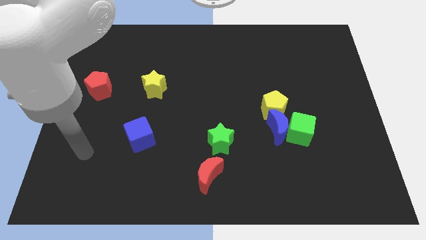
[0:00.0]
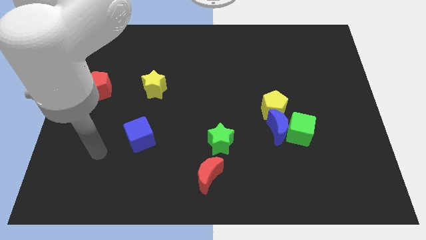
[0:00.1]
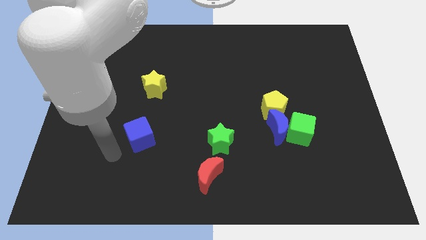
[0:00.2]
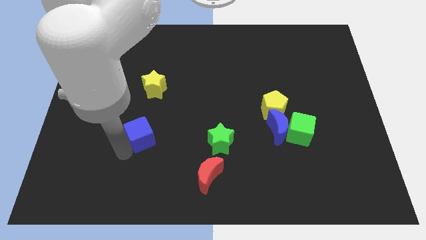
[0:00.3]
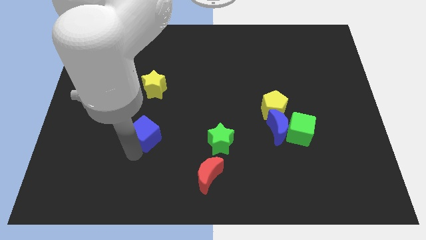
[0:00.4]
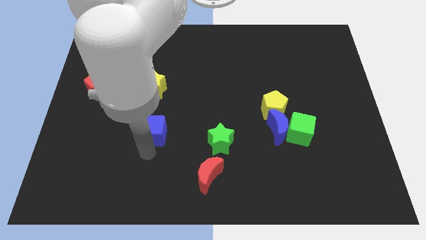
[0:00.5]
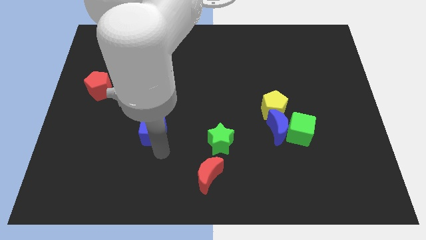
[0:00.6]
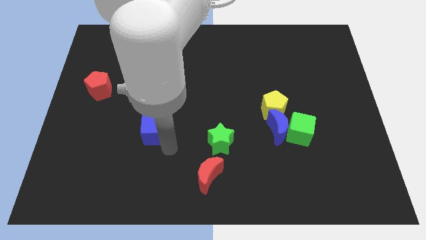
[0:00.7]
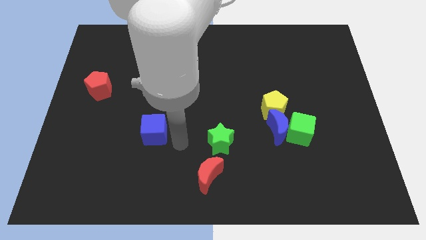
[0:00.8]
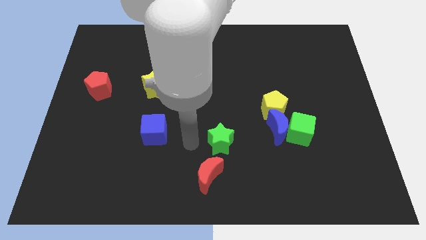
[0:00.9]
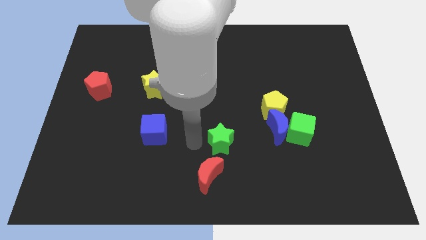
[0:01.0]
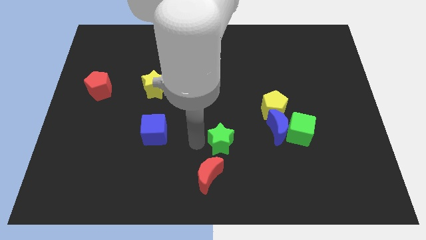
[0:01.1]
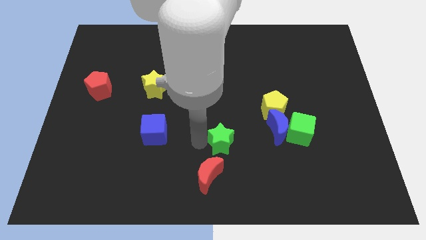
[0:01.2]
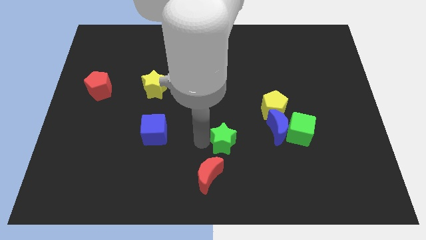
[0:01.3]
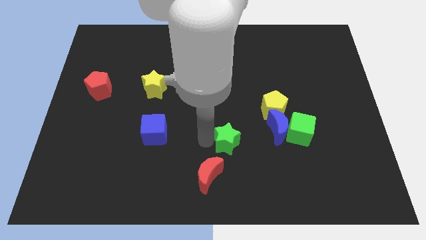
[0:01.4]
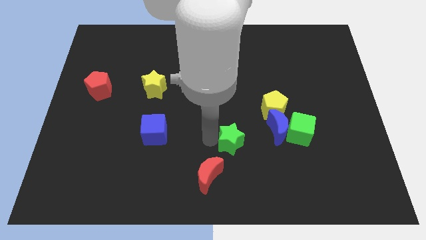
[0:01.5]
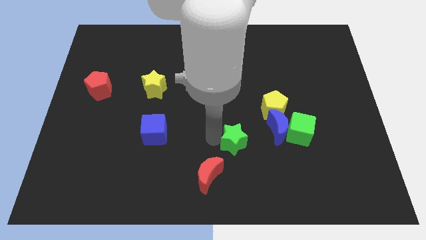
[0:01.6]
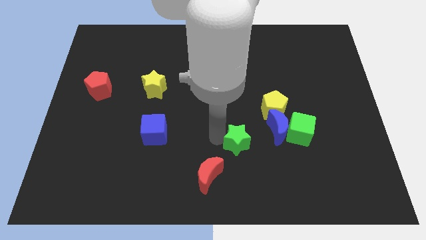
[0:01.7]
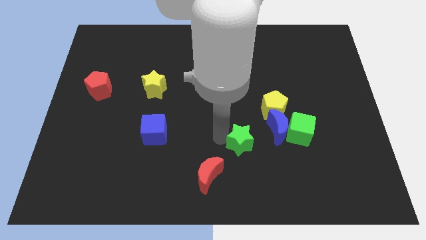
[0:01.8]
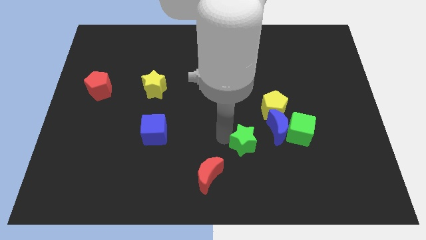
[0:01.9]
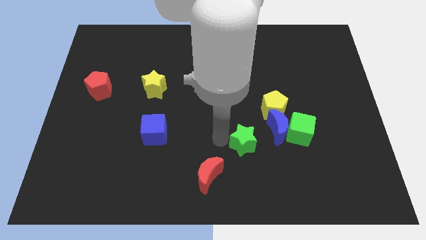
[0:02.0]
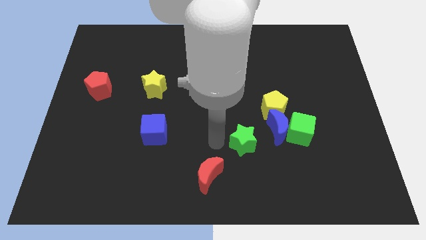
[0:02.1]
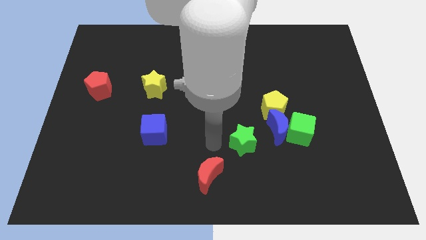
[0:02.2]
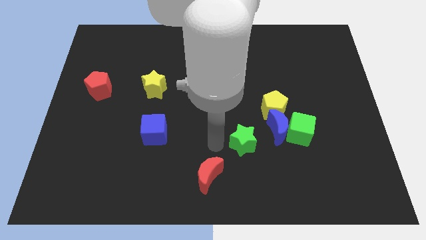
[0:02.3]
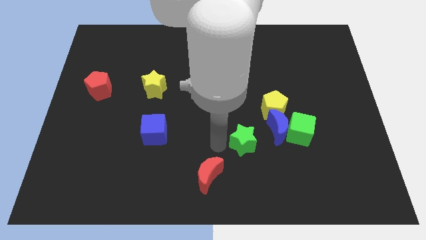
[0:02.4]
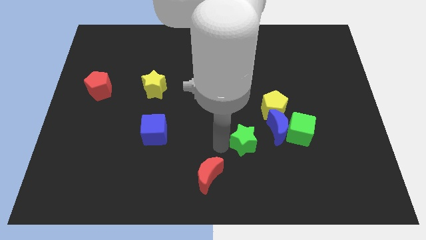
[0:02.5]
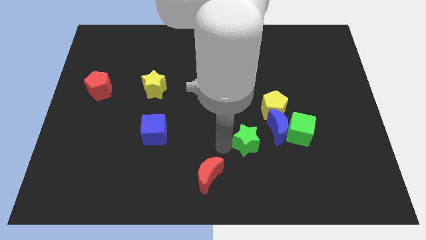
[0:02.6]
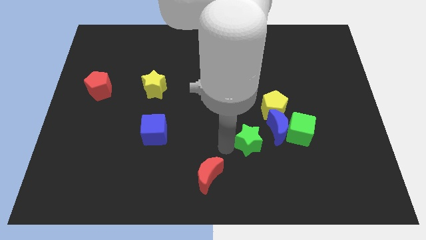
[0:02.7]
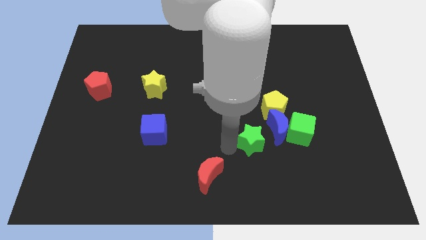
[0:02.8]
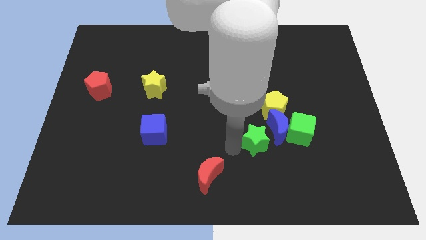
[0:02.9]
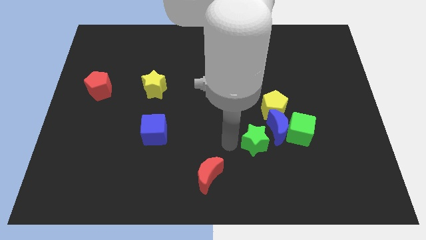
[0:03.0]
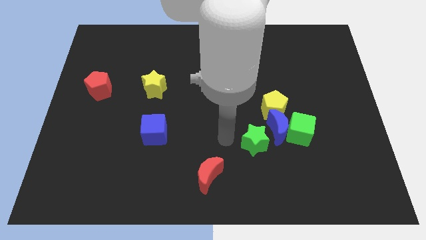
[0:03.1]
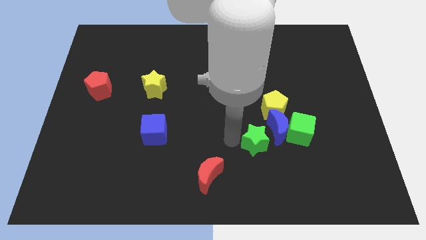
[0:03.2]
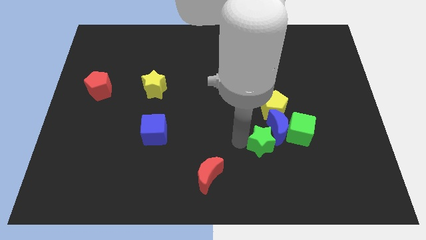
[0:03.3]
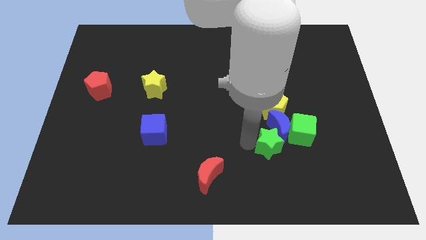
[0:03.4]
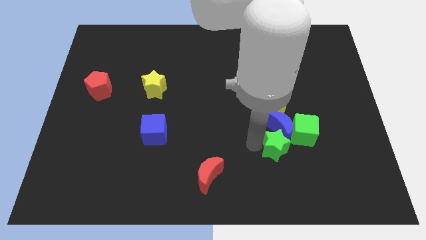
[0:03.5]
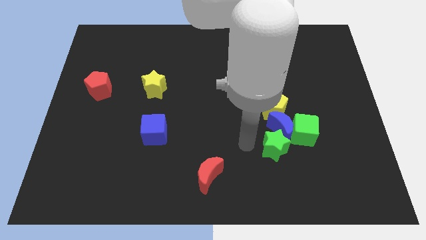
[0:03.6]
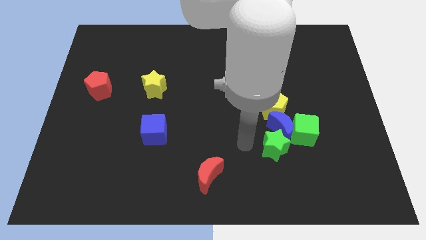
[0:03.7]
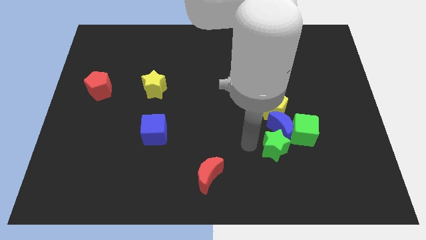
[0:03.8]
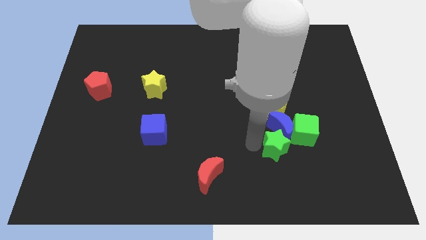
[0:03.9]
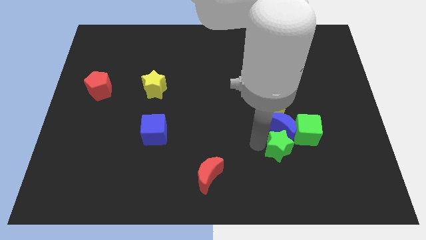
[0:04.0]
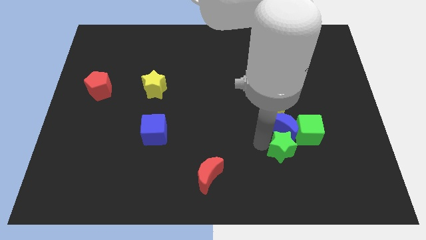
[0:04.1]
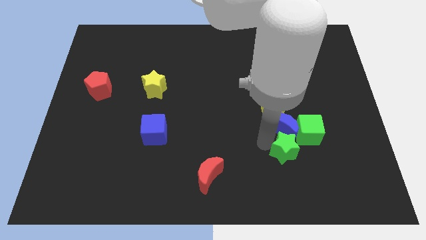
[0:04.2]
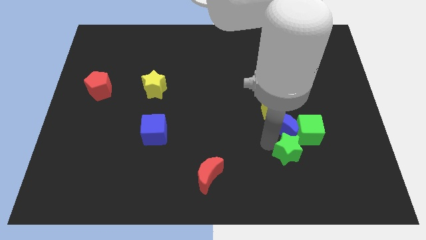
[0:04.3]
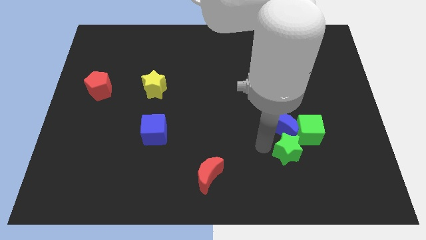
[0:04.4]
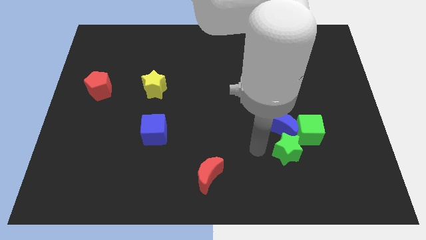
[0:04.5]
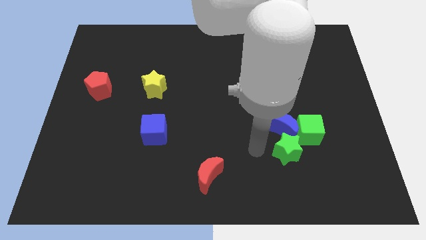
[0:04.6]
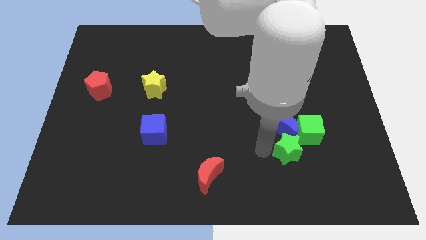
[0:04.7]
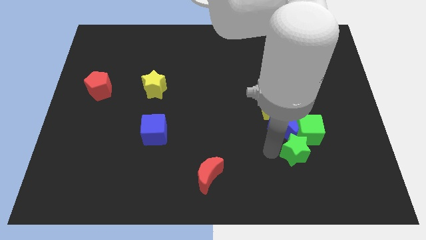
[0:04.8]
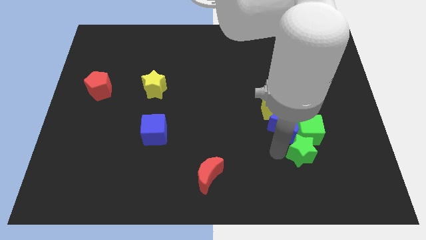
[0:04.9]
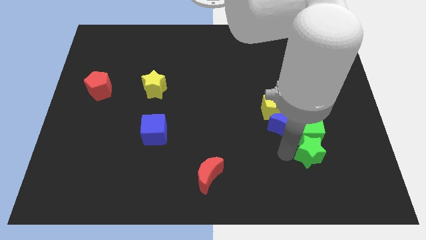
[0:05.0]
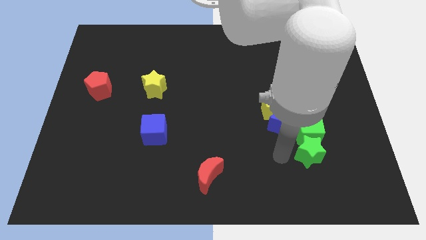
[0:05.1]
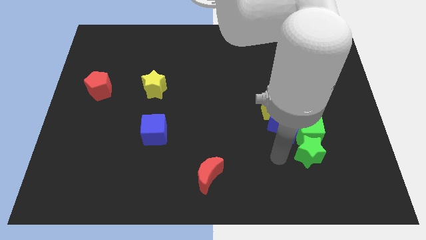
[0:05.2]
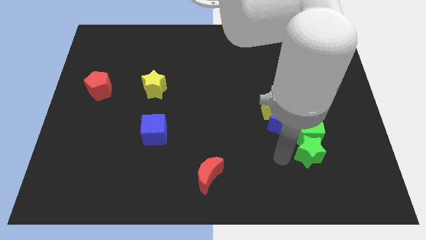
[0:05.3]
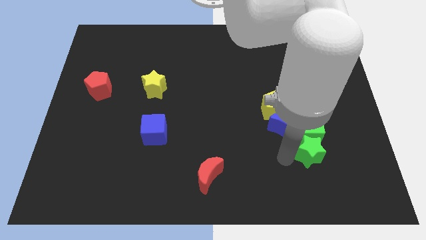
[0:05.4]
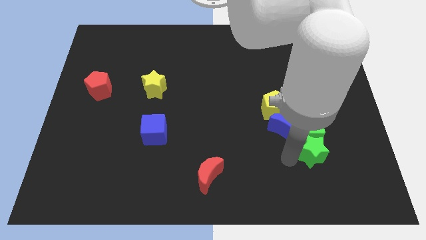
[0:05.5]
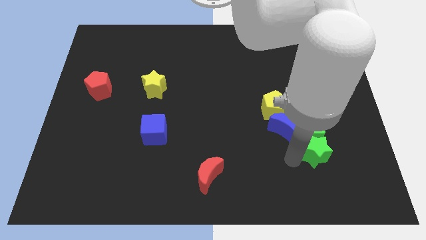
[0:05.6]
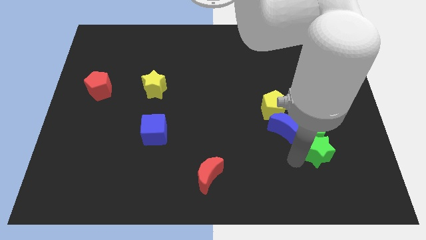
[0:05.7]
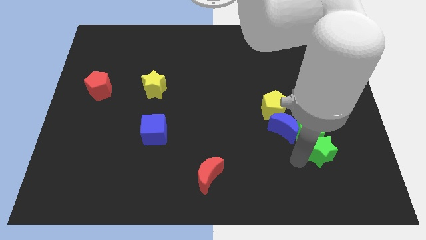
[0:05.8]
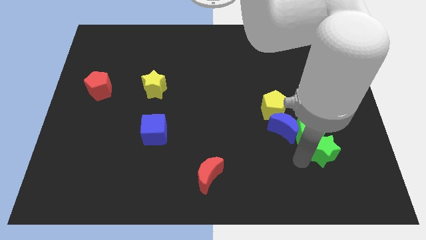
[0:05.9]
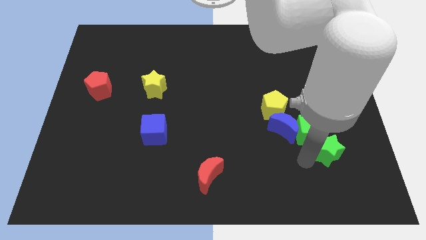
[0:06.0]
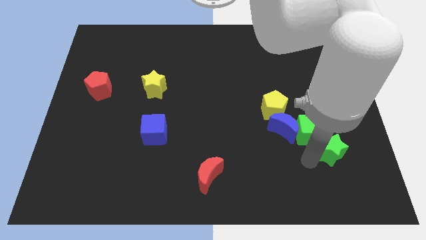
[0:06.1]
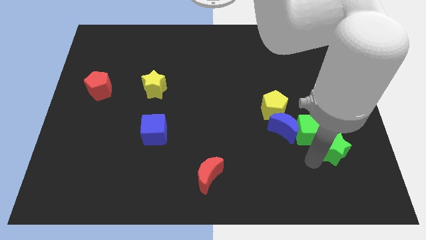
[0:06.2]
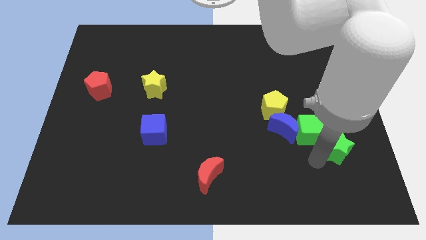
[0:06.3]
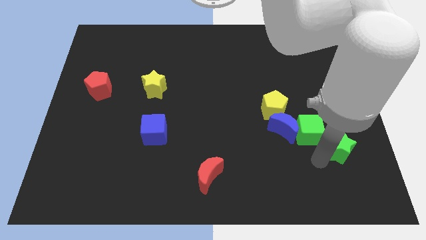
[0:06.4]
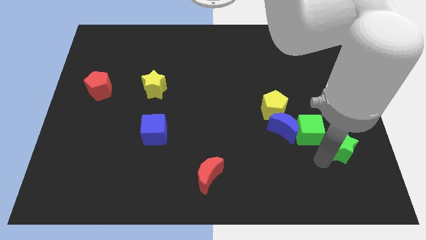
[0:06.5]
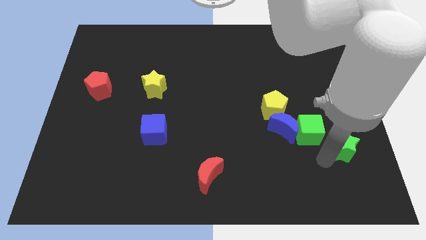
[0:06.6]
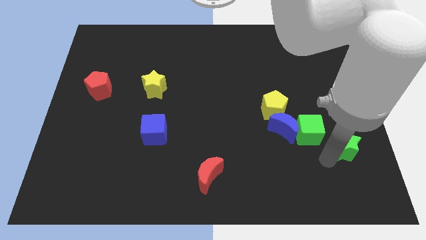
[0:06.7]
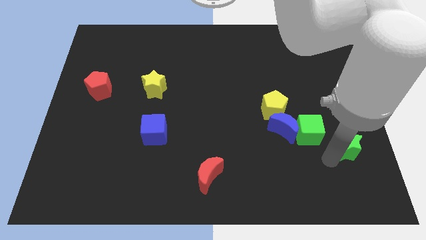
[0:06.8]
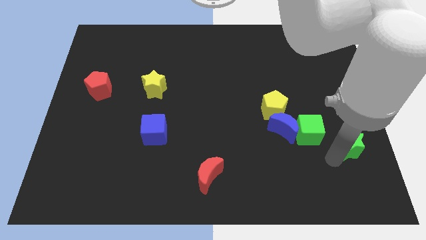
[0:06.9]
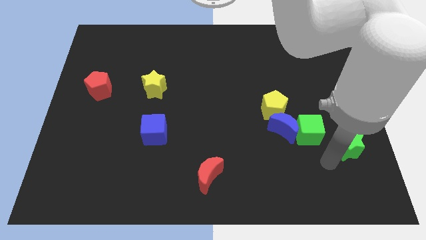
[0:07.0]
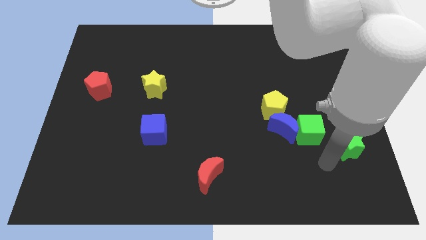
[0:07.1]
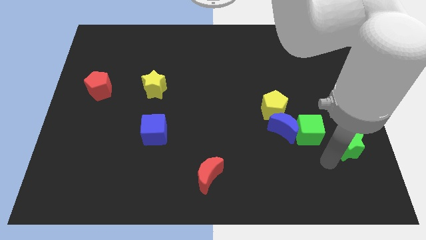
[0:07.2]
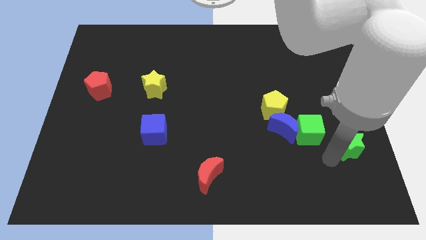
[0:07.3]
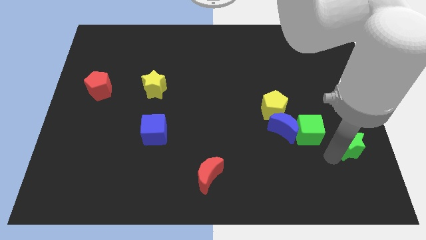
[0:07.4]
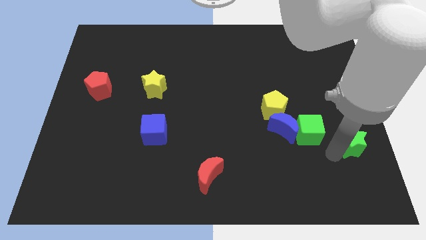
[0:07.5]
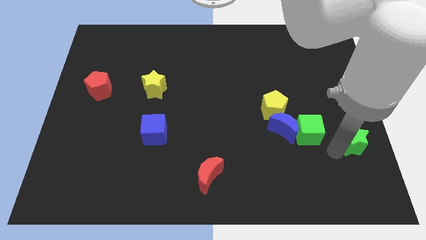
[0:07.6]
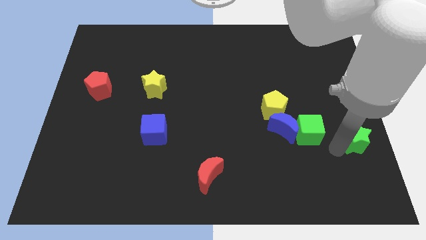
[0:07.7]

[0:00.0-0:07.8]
move the green star to the center right

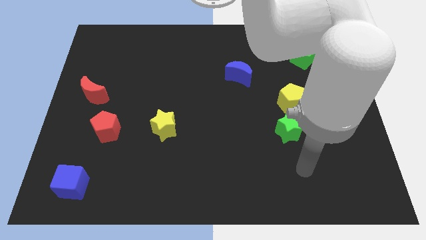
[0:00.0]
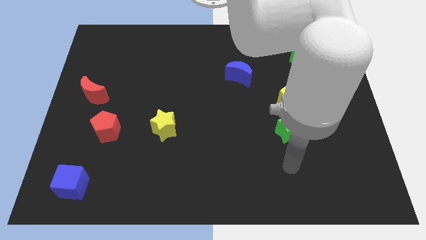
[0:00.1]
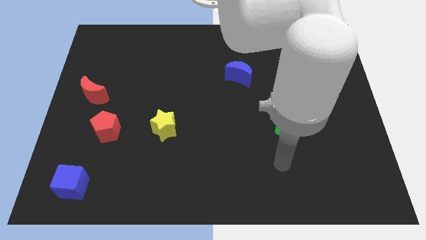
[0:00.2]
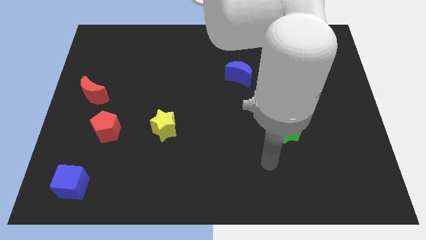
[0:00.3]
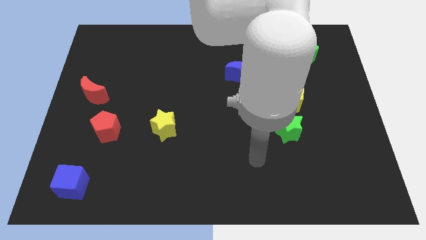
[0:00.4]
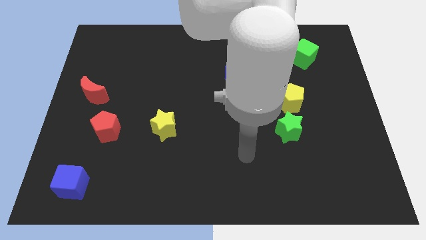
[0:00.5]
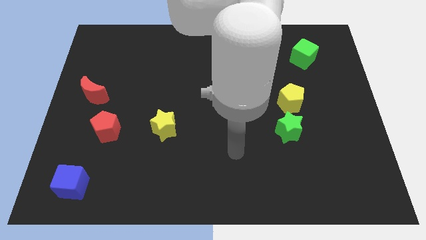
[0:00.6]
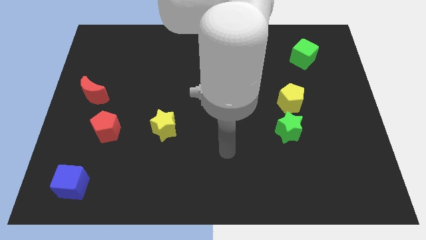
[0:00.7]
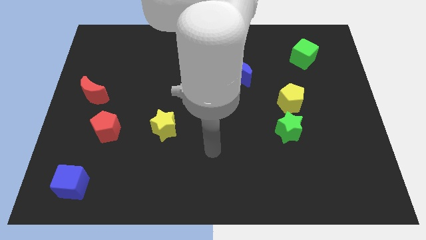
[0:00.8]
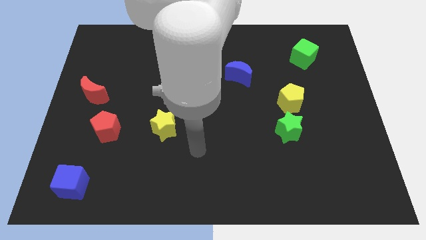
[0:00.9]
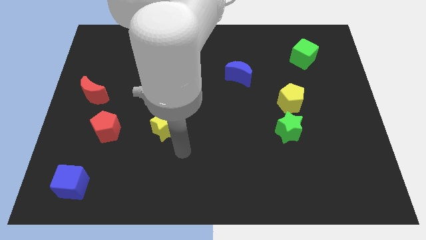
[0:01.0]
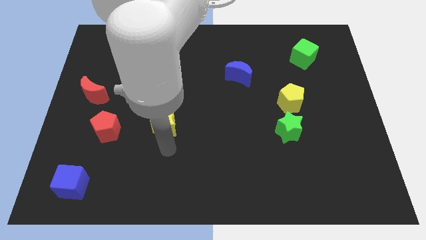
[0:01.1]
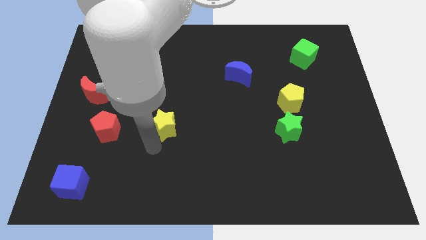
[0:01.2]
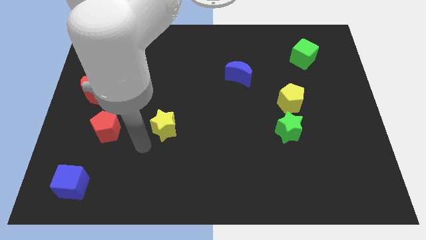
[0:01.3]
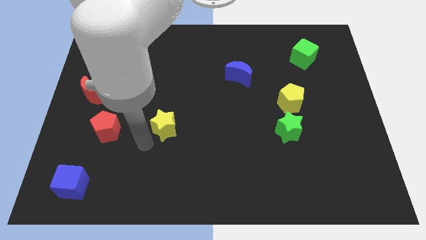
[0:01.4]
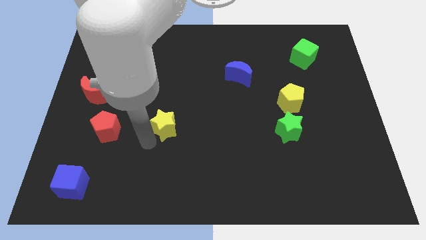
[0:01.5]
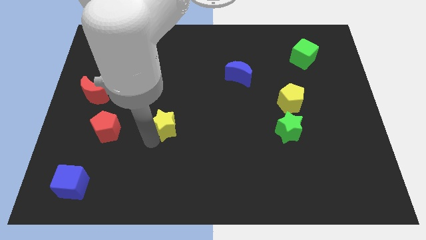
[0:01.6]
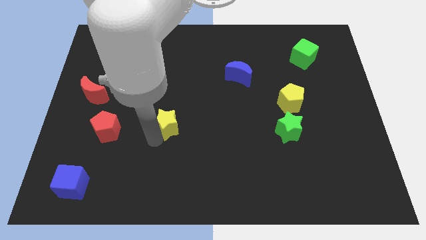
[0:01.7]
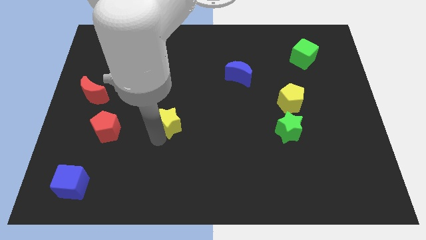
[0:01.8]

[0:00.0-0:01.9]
put the yellow star to the middle
